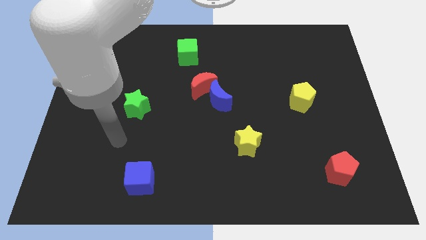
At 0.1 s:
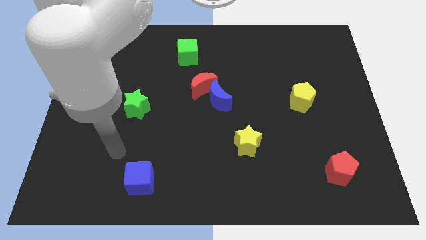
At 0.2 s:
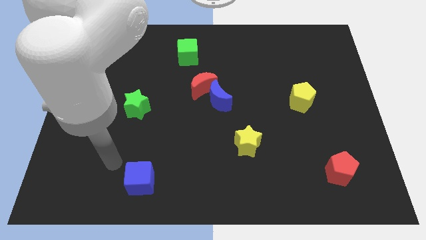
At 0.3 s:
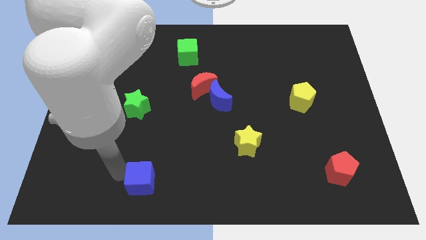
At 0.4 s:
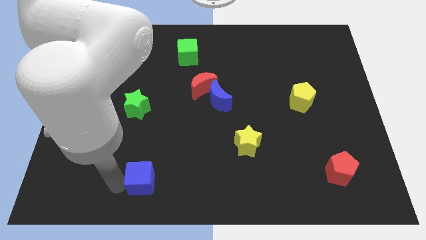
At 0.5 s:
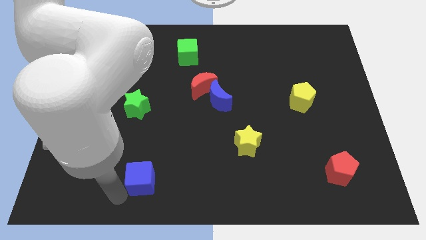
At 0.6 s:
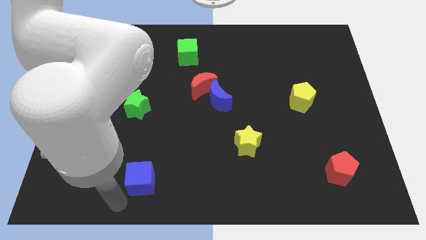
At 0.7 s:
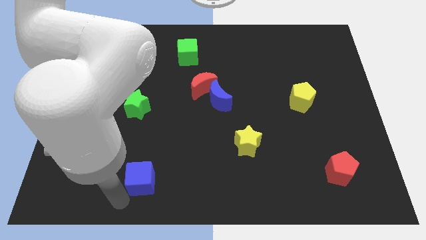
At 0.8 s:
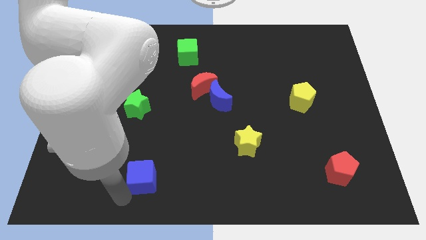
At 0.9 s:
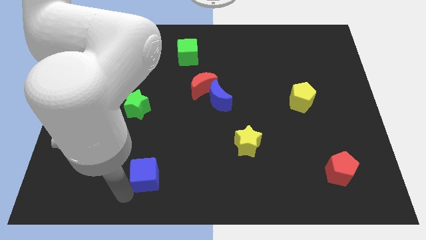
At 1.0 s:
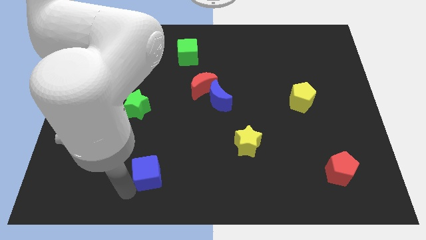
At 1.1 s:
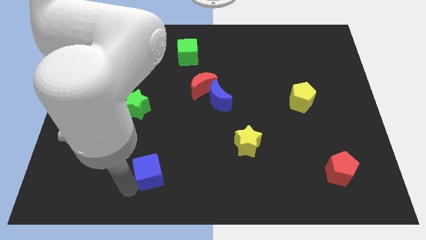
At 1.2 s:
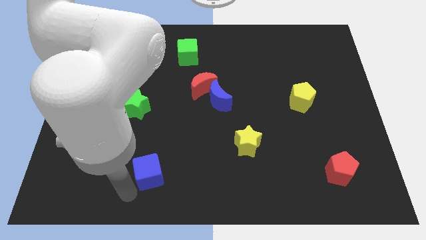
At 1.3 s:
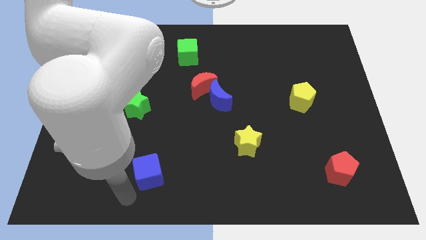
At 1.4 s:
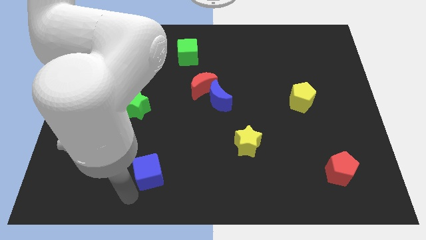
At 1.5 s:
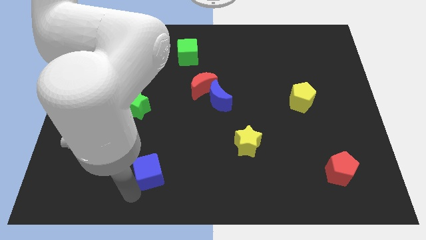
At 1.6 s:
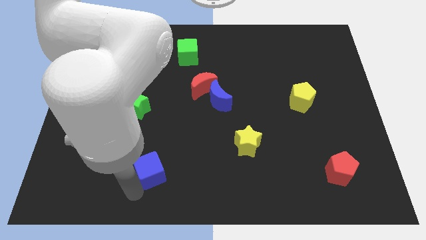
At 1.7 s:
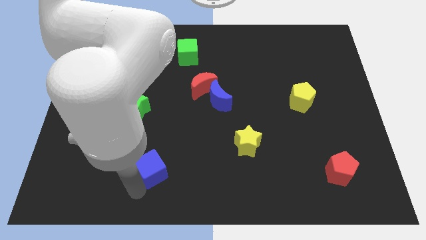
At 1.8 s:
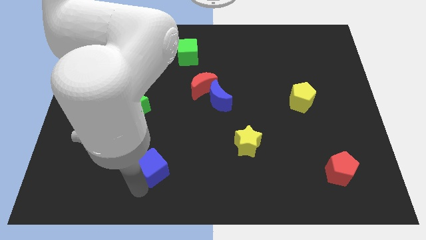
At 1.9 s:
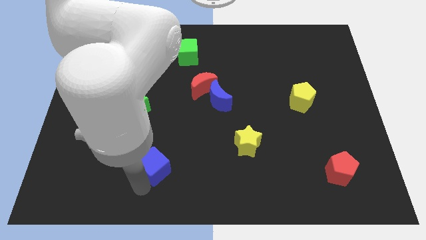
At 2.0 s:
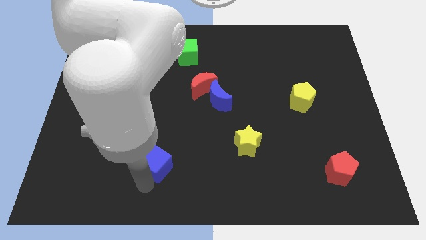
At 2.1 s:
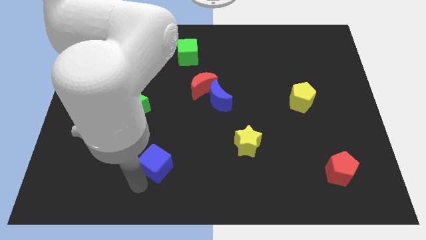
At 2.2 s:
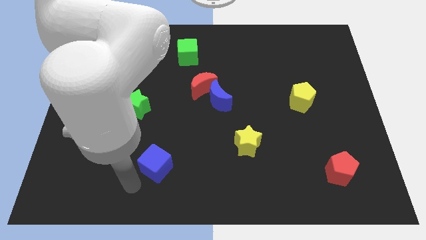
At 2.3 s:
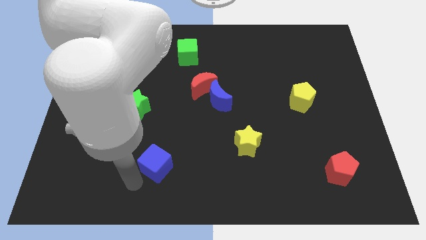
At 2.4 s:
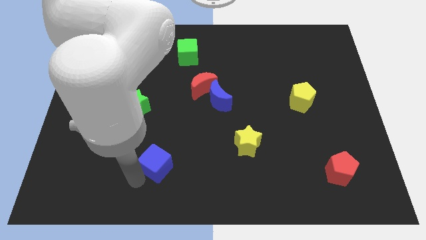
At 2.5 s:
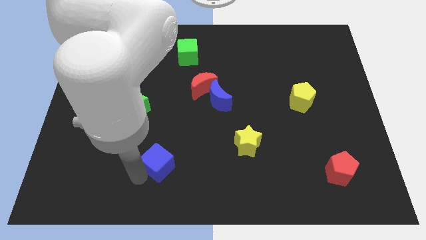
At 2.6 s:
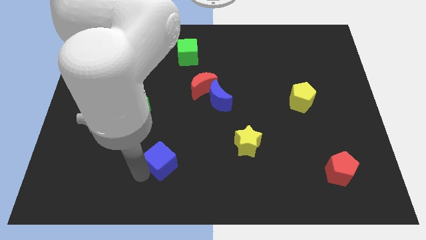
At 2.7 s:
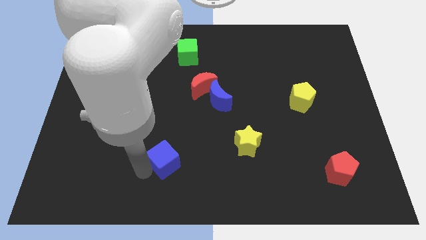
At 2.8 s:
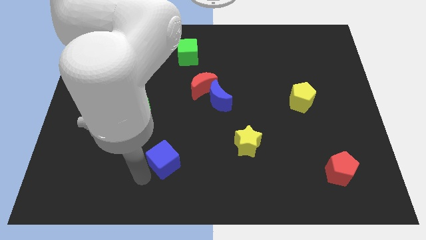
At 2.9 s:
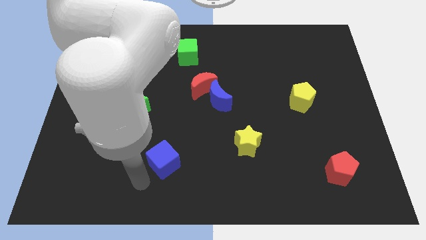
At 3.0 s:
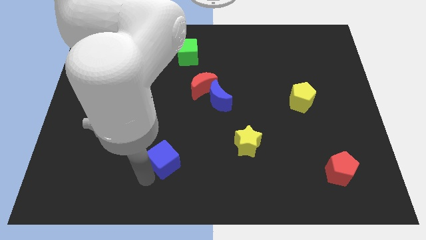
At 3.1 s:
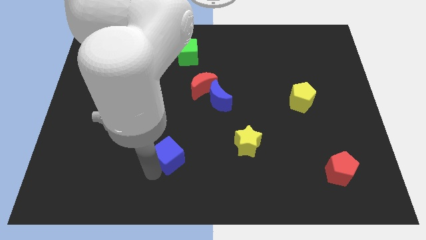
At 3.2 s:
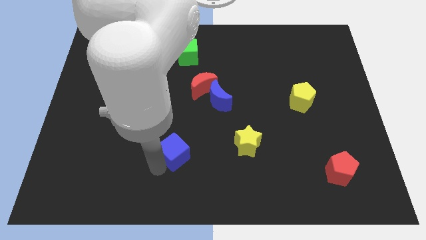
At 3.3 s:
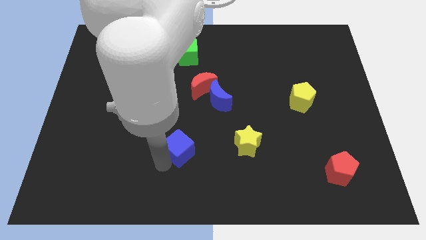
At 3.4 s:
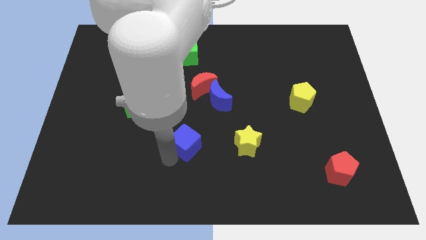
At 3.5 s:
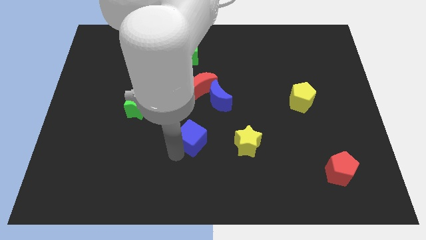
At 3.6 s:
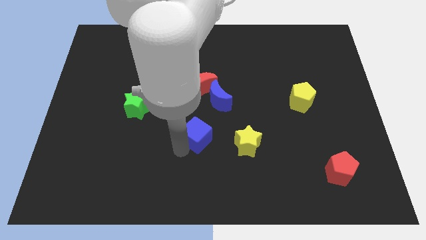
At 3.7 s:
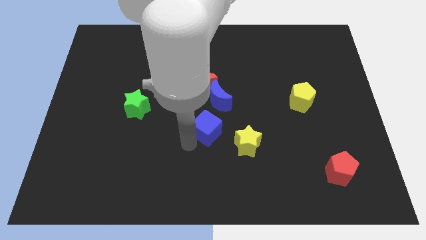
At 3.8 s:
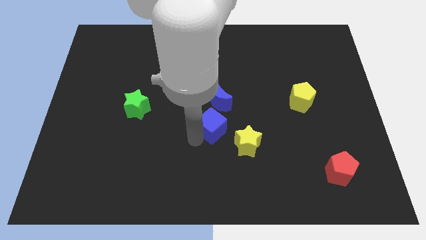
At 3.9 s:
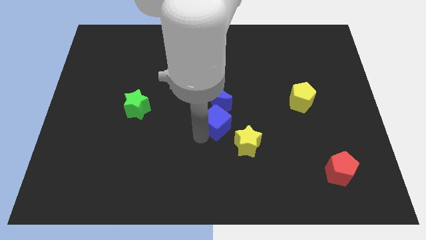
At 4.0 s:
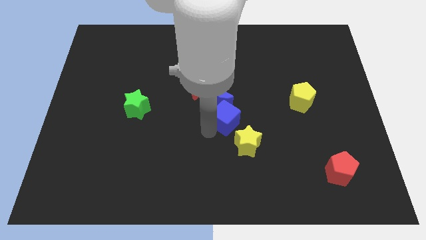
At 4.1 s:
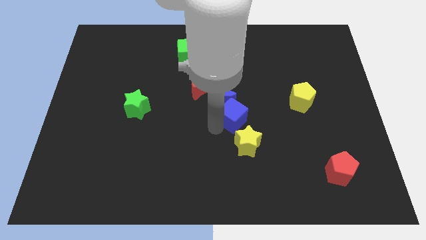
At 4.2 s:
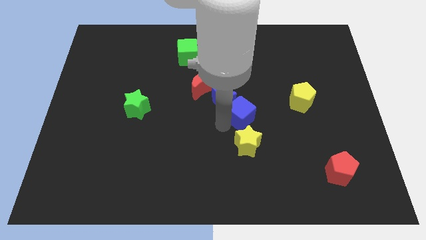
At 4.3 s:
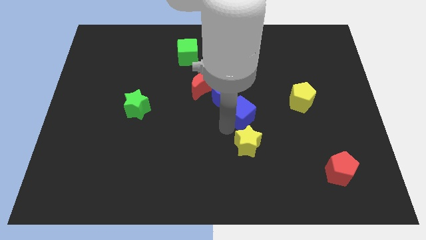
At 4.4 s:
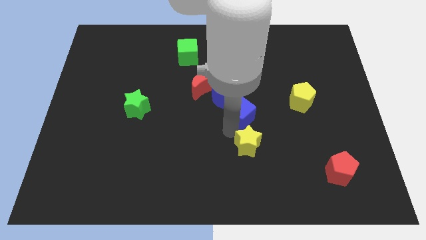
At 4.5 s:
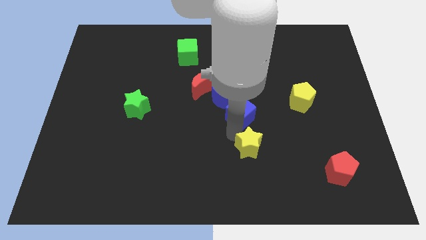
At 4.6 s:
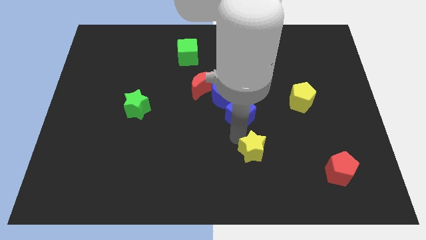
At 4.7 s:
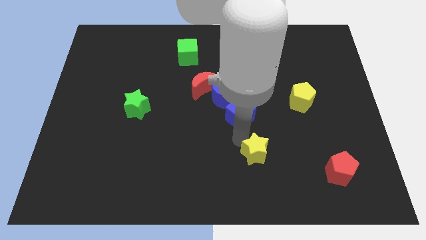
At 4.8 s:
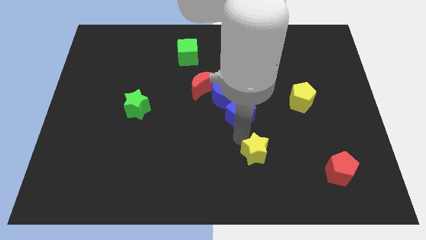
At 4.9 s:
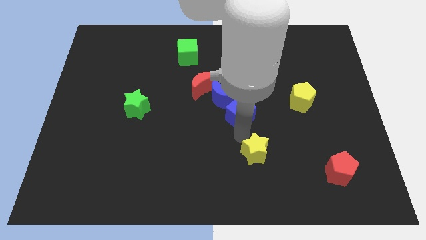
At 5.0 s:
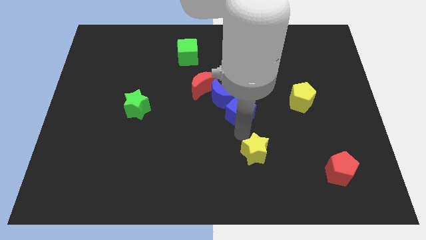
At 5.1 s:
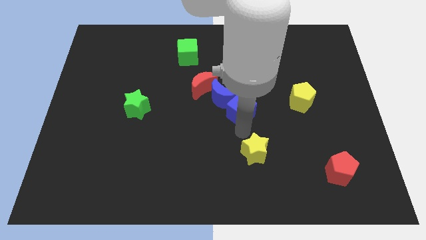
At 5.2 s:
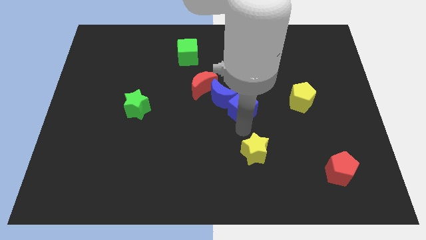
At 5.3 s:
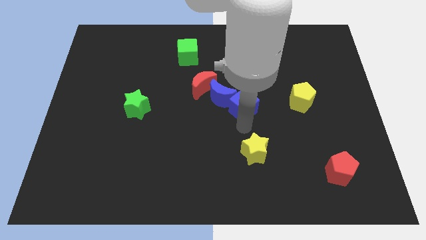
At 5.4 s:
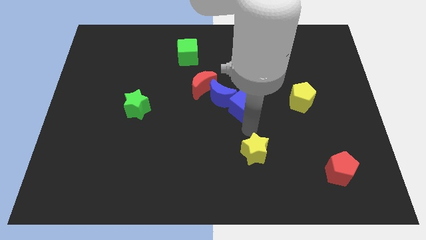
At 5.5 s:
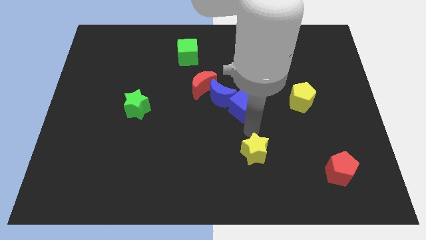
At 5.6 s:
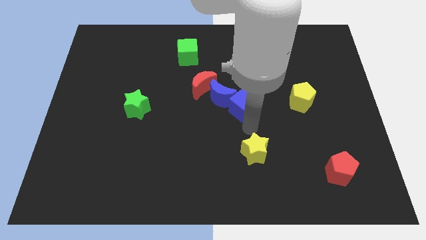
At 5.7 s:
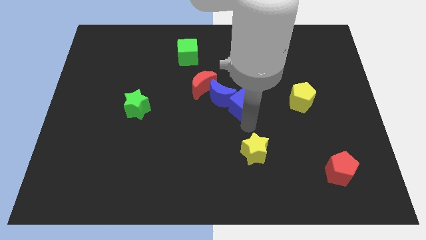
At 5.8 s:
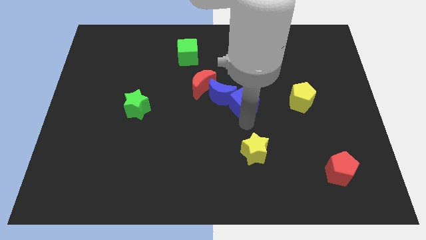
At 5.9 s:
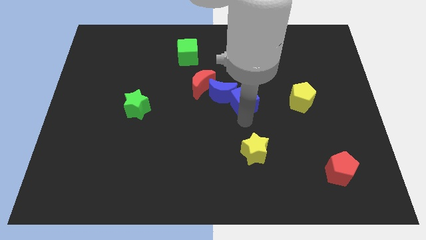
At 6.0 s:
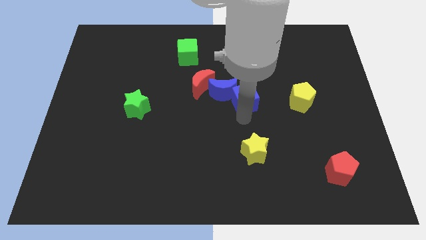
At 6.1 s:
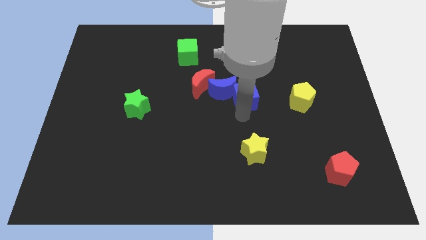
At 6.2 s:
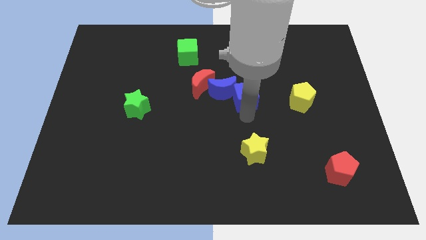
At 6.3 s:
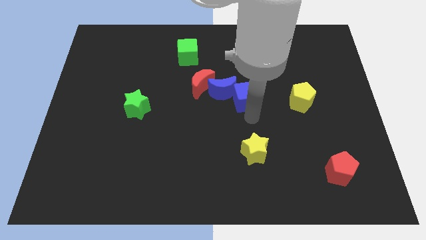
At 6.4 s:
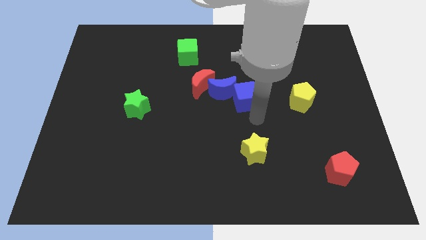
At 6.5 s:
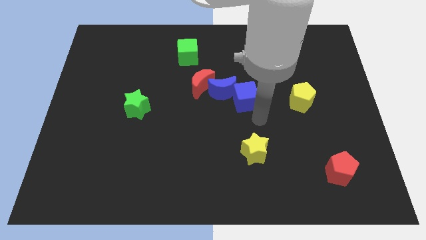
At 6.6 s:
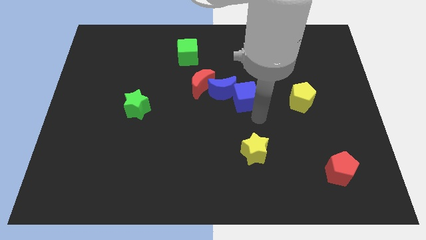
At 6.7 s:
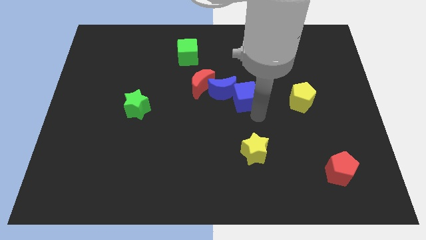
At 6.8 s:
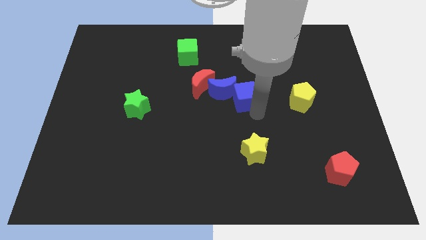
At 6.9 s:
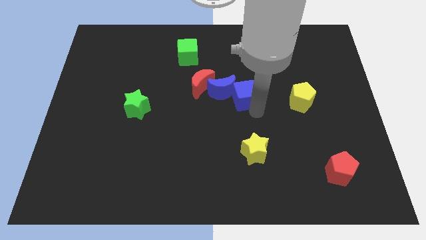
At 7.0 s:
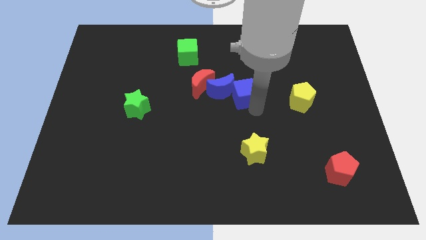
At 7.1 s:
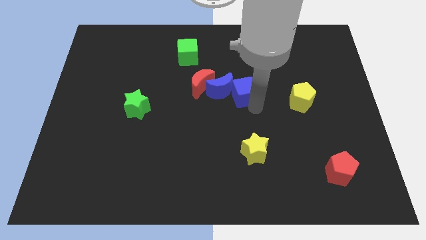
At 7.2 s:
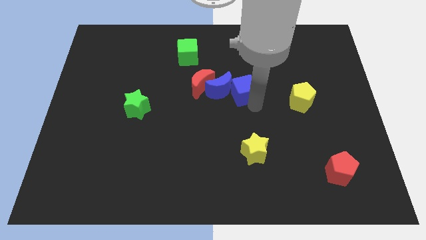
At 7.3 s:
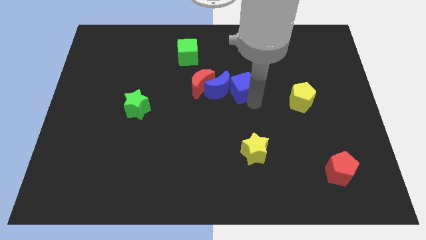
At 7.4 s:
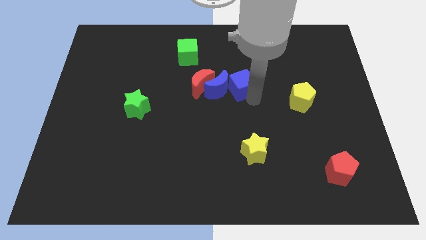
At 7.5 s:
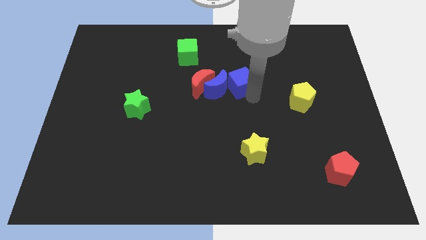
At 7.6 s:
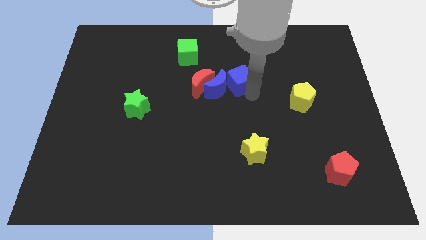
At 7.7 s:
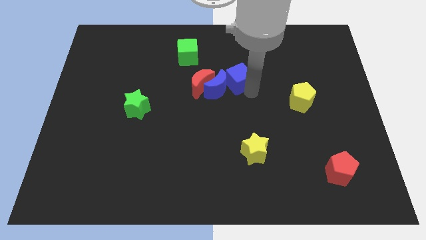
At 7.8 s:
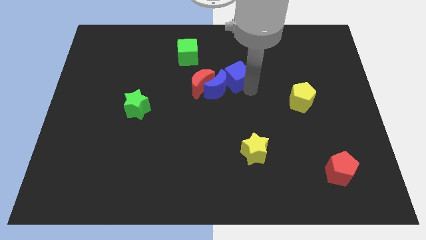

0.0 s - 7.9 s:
put the blue cube diagonally up and to the right of the red moon
